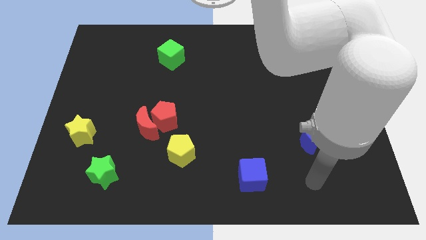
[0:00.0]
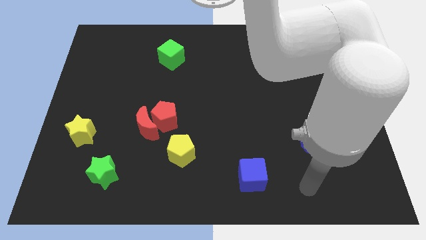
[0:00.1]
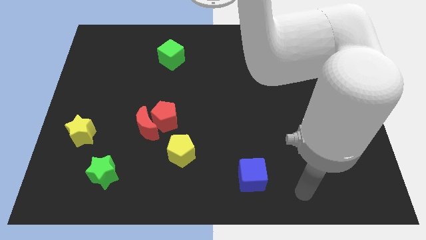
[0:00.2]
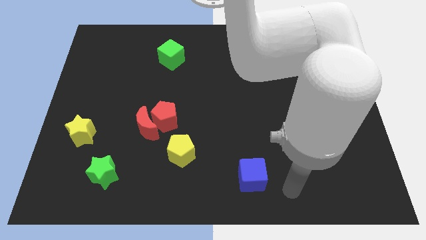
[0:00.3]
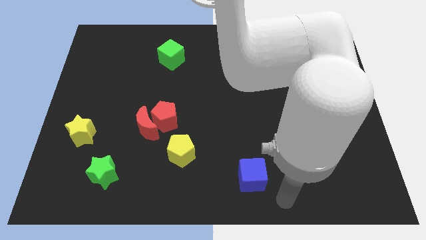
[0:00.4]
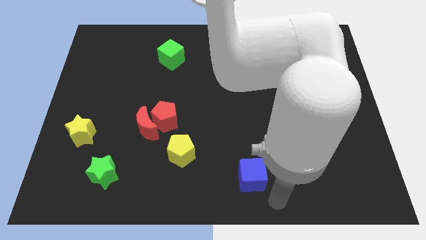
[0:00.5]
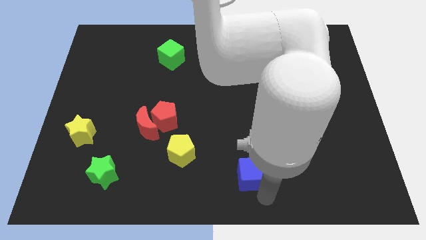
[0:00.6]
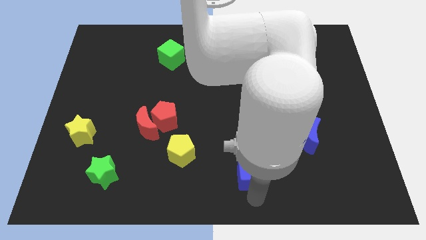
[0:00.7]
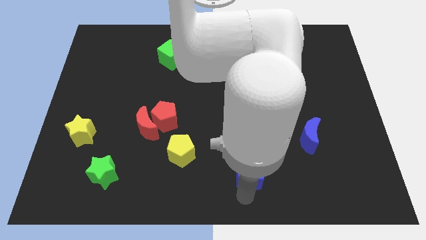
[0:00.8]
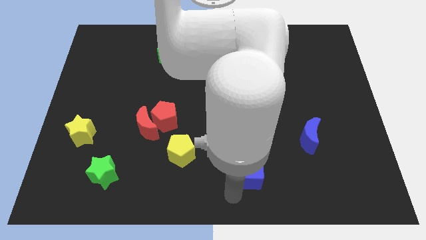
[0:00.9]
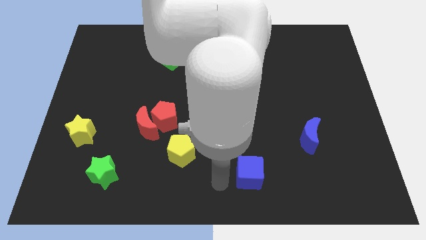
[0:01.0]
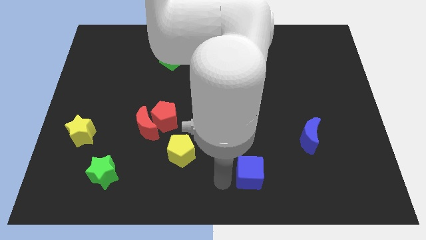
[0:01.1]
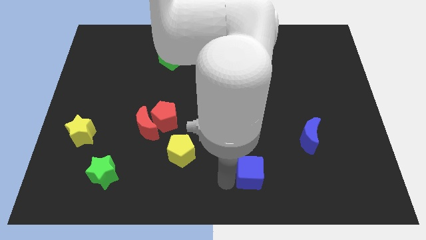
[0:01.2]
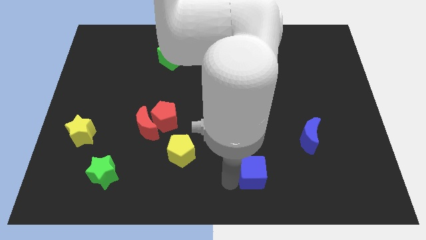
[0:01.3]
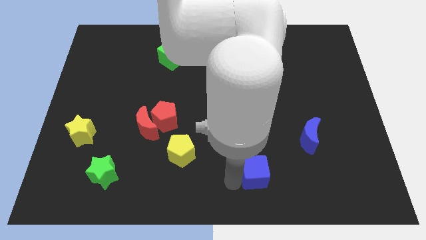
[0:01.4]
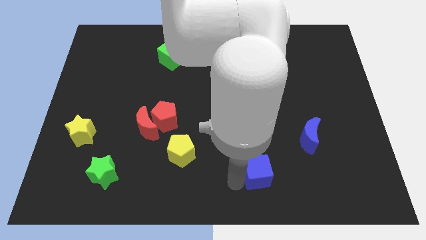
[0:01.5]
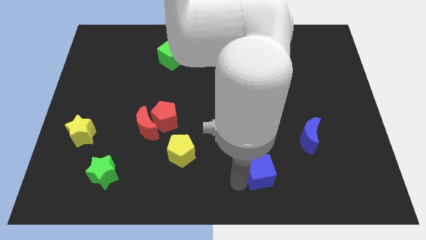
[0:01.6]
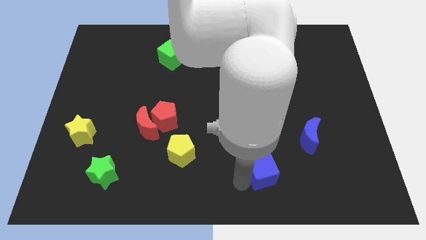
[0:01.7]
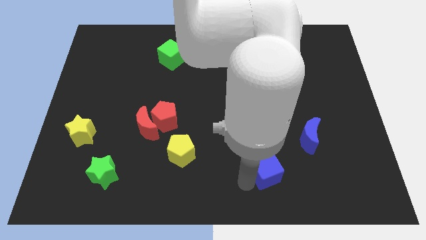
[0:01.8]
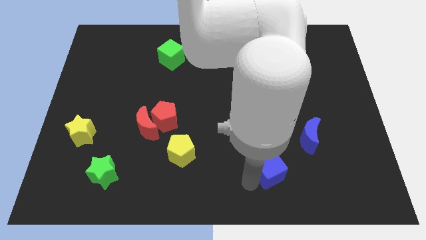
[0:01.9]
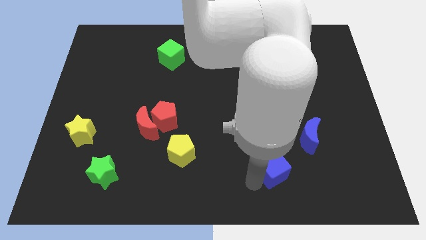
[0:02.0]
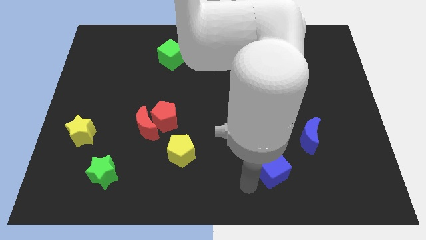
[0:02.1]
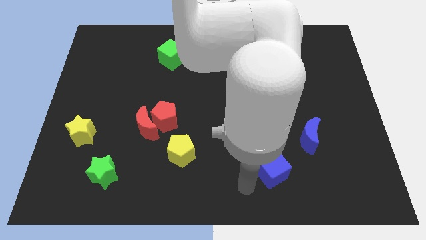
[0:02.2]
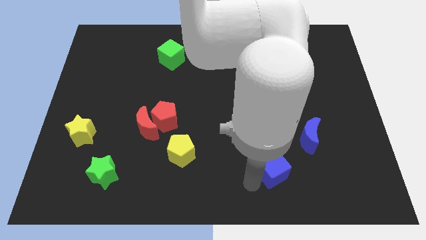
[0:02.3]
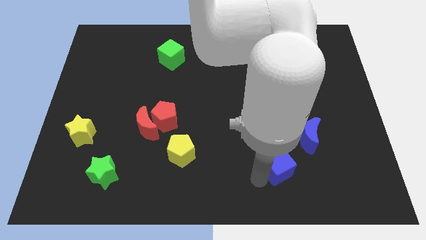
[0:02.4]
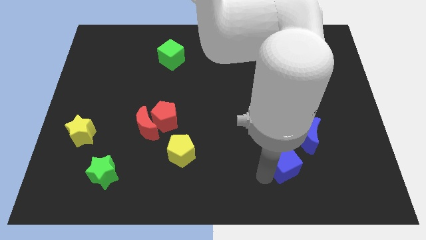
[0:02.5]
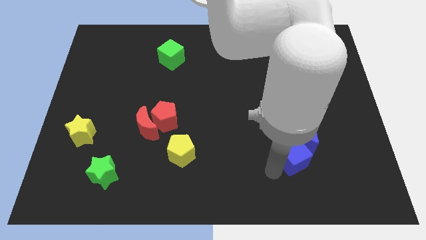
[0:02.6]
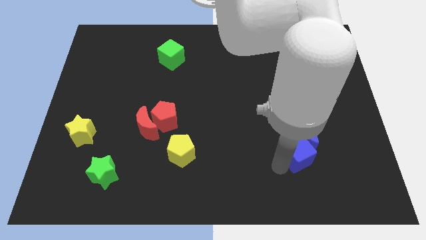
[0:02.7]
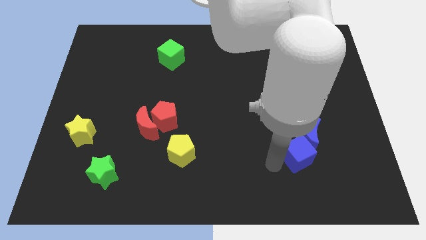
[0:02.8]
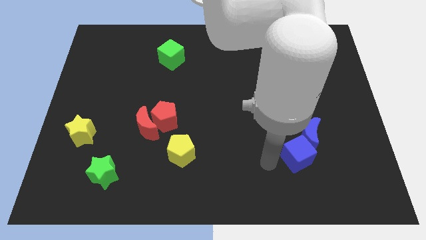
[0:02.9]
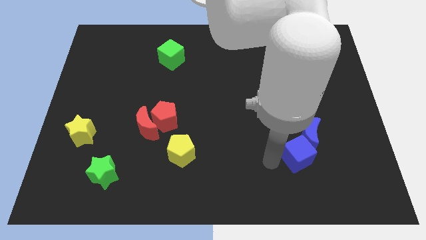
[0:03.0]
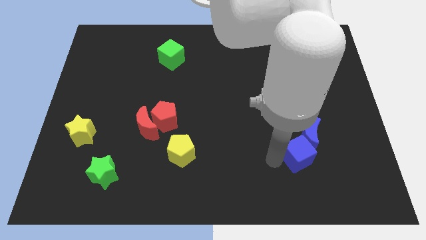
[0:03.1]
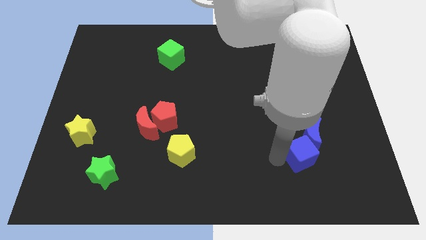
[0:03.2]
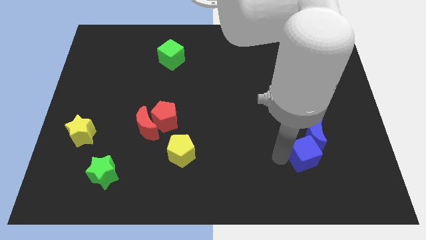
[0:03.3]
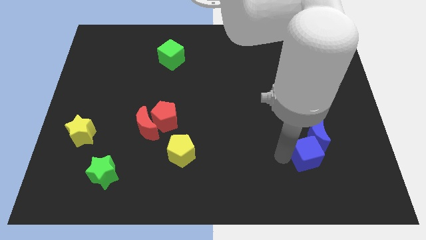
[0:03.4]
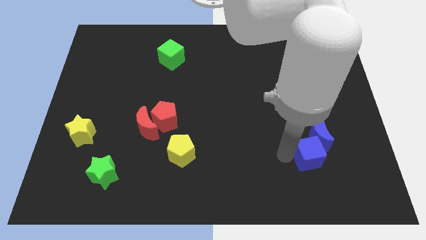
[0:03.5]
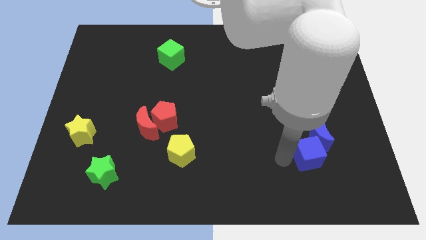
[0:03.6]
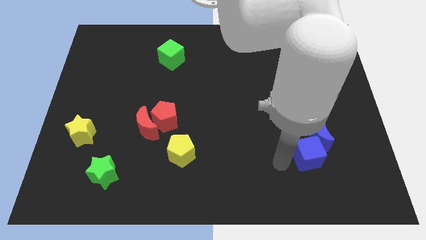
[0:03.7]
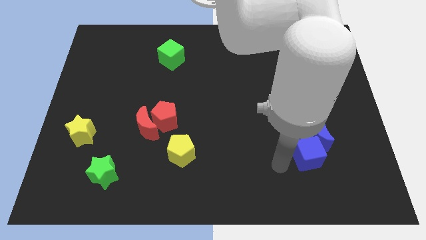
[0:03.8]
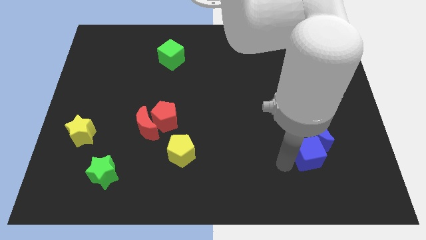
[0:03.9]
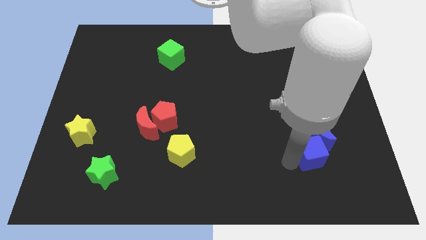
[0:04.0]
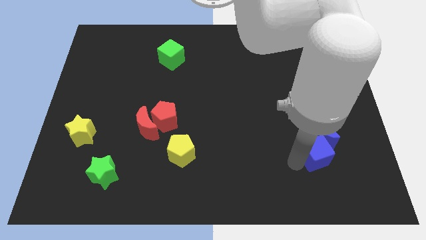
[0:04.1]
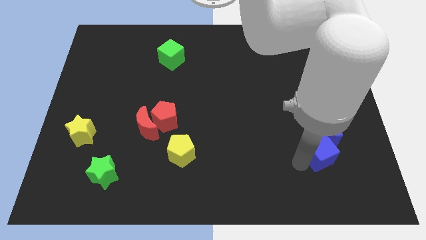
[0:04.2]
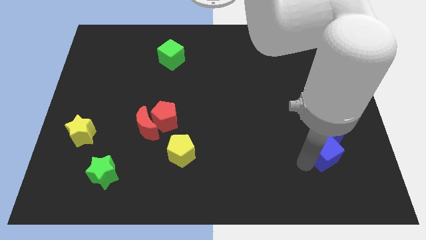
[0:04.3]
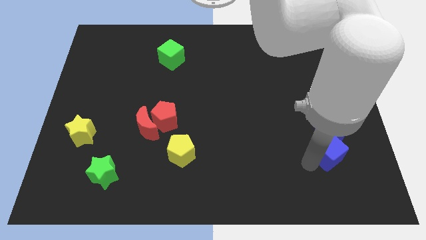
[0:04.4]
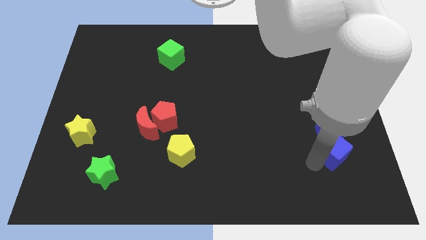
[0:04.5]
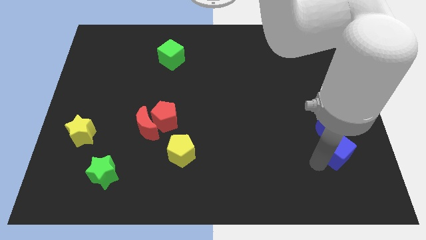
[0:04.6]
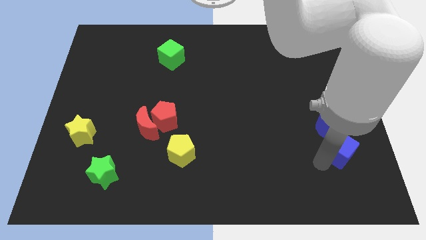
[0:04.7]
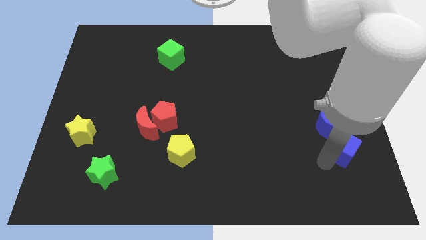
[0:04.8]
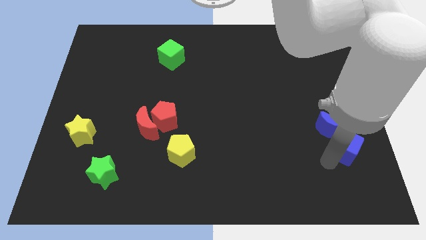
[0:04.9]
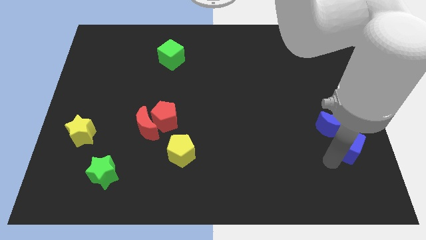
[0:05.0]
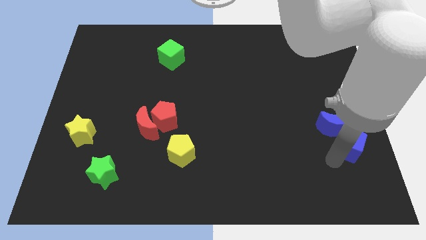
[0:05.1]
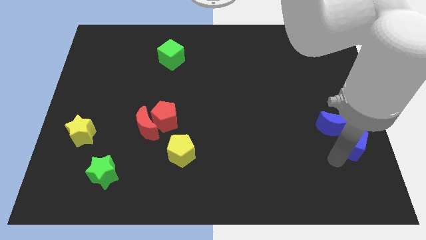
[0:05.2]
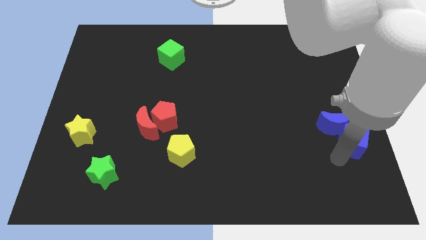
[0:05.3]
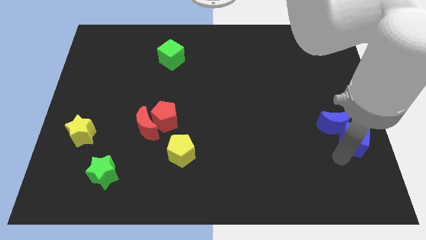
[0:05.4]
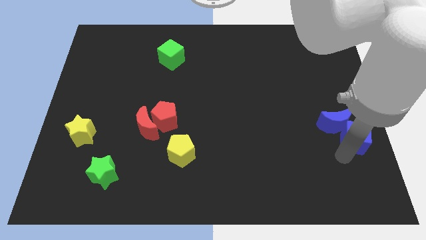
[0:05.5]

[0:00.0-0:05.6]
move the blue cube to the right side of the board

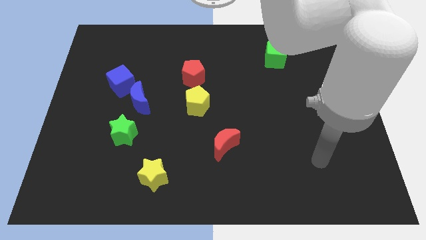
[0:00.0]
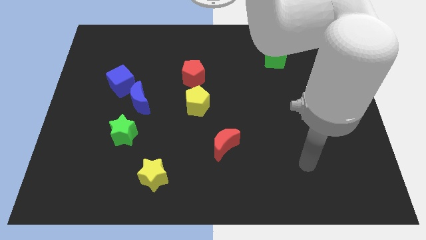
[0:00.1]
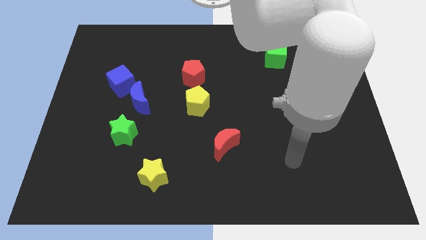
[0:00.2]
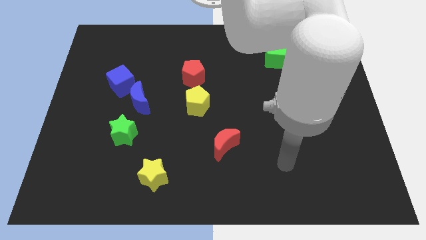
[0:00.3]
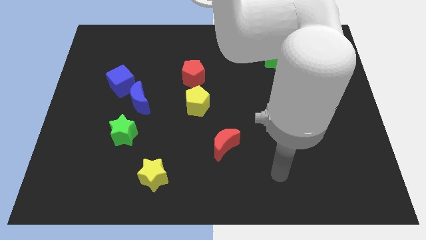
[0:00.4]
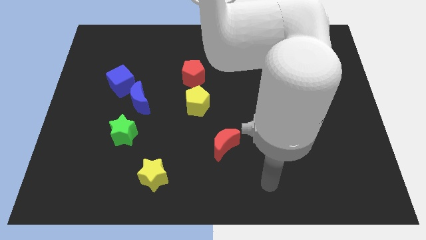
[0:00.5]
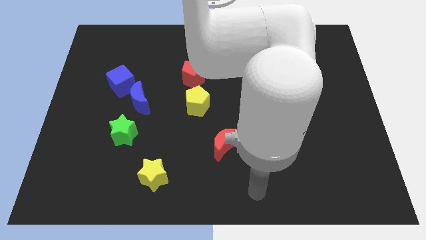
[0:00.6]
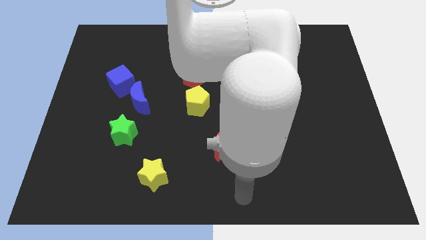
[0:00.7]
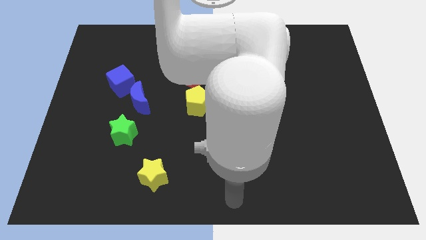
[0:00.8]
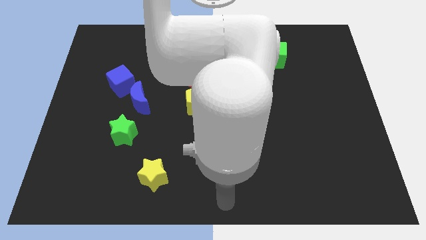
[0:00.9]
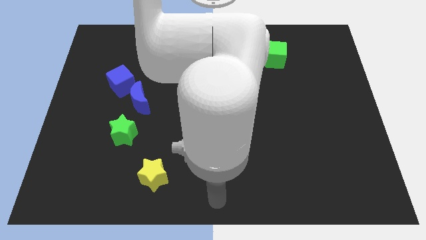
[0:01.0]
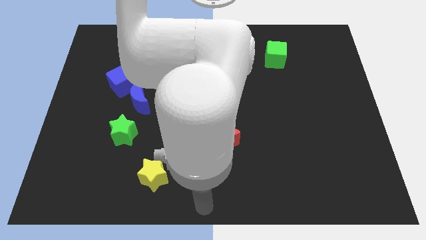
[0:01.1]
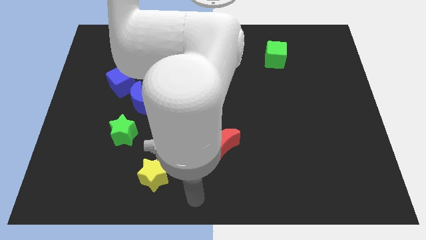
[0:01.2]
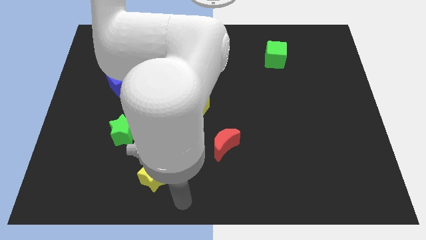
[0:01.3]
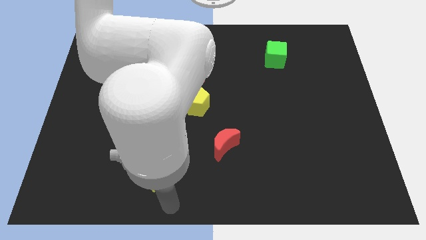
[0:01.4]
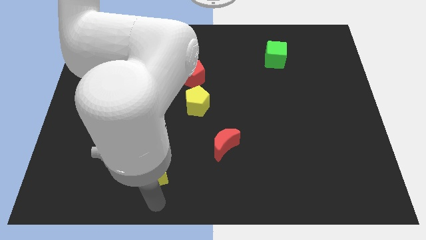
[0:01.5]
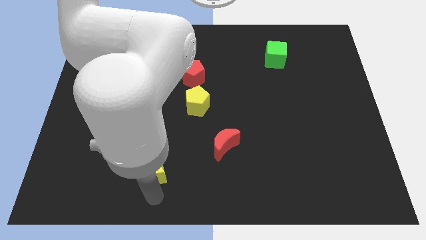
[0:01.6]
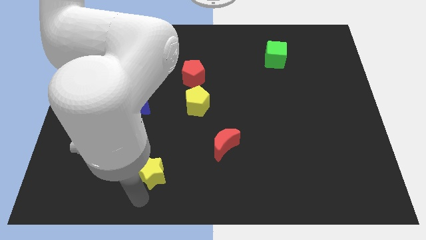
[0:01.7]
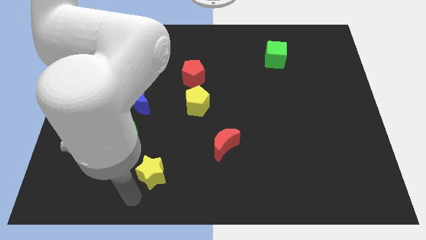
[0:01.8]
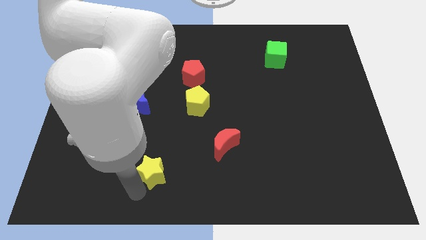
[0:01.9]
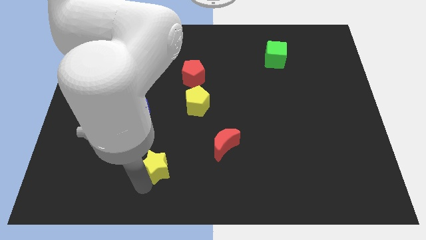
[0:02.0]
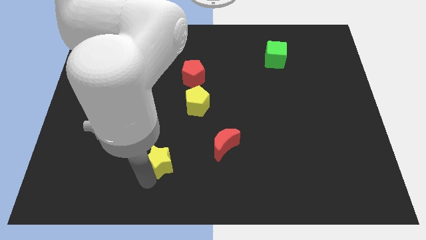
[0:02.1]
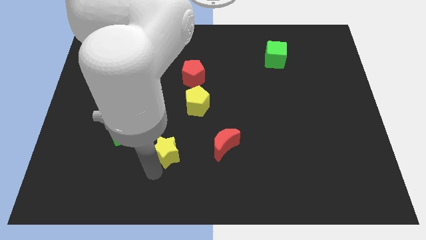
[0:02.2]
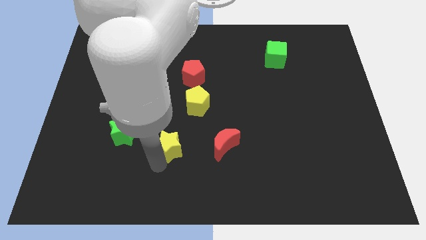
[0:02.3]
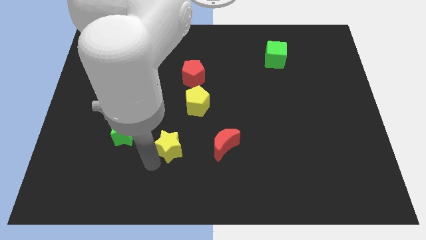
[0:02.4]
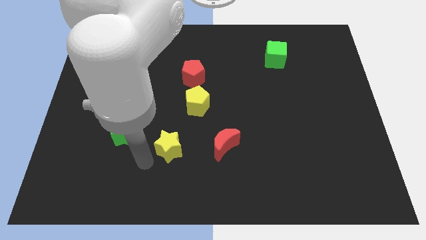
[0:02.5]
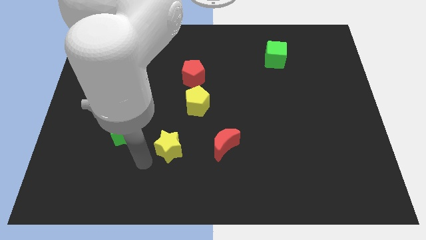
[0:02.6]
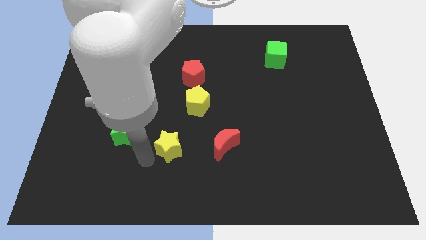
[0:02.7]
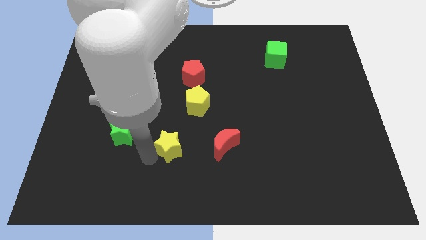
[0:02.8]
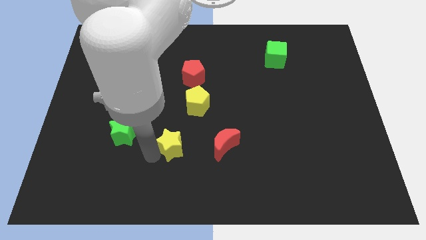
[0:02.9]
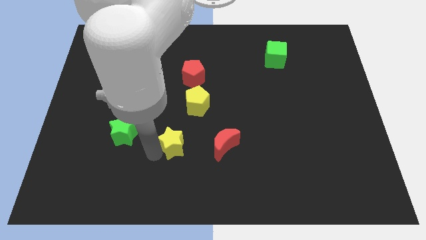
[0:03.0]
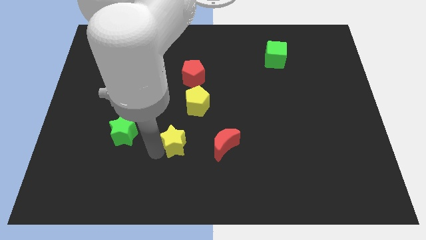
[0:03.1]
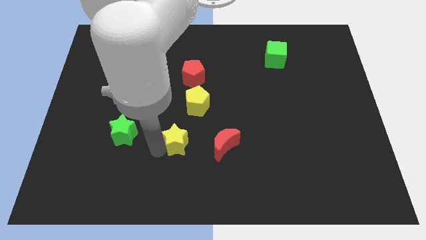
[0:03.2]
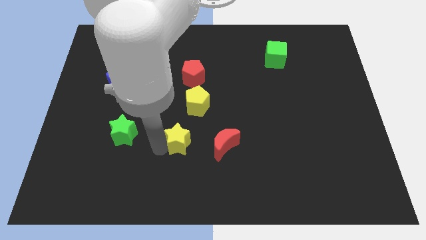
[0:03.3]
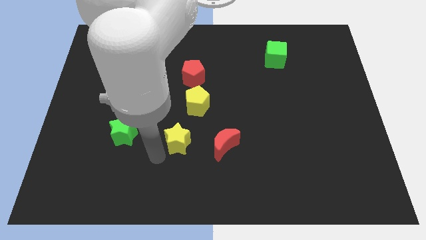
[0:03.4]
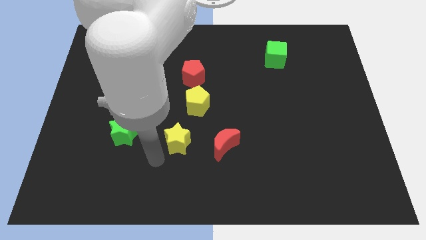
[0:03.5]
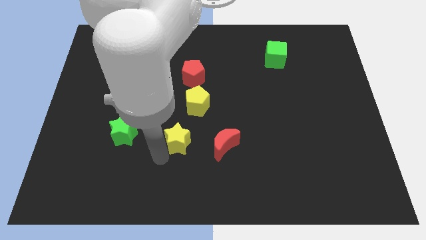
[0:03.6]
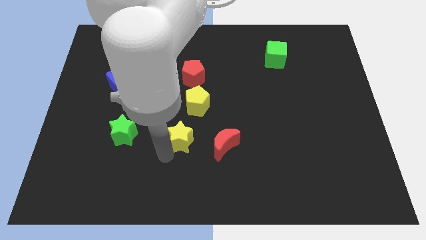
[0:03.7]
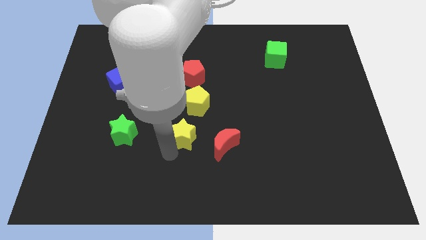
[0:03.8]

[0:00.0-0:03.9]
push the yellow star to the center
